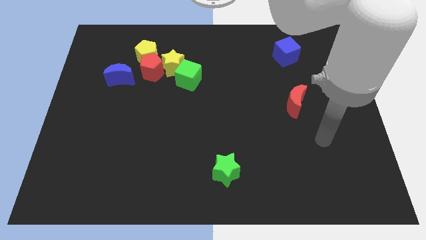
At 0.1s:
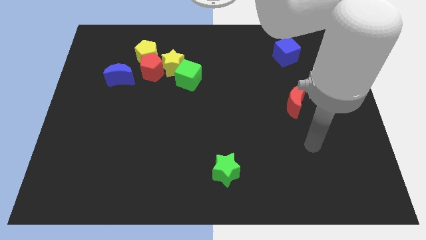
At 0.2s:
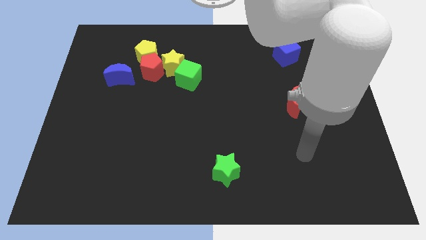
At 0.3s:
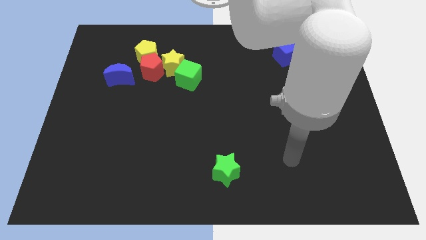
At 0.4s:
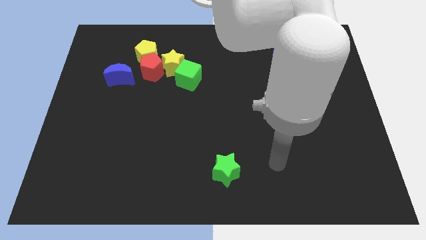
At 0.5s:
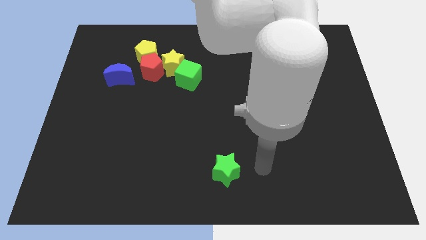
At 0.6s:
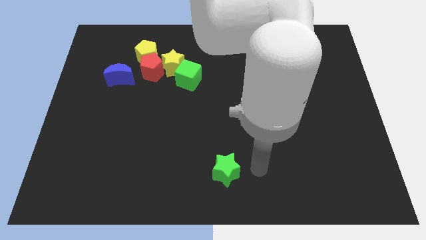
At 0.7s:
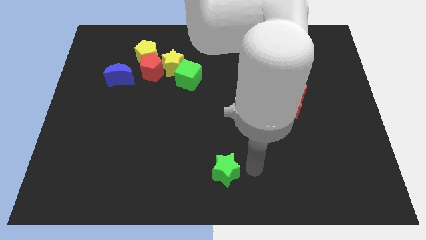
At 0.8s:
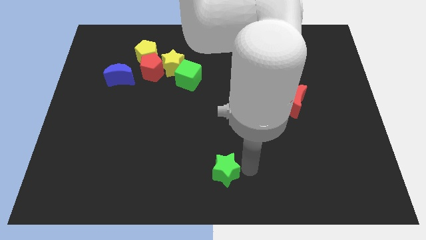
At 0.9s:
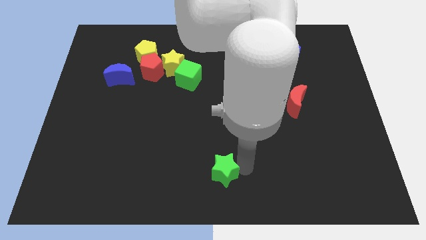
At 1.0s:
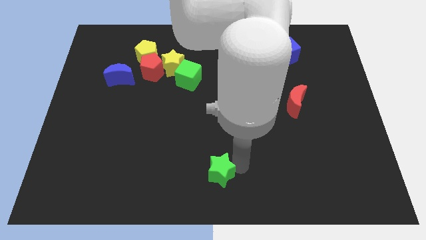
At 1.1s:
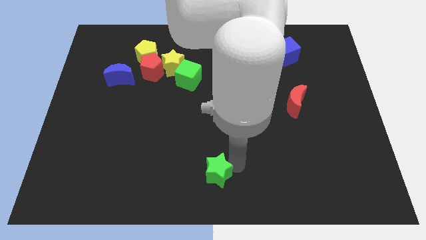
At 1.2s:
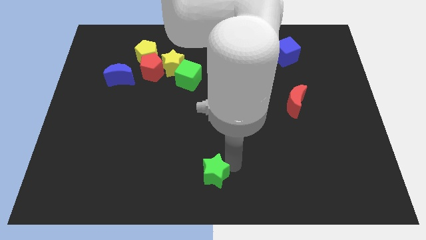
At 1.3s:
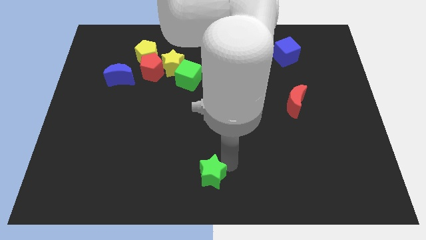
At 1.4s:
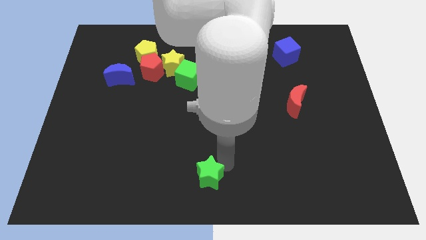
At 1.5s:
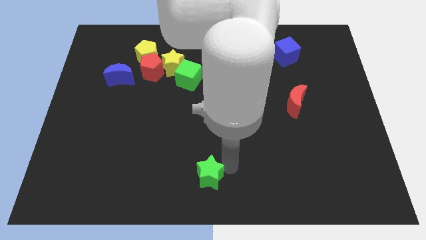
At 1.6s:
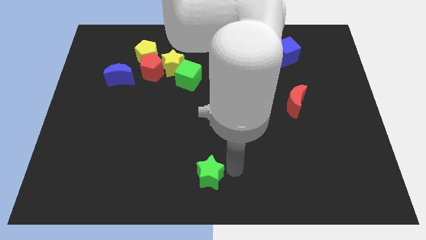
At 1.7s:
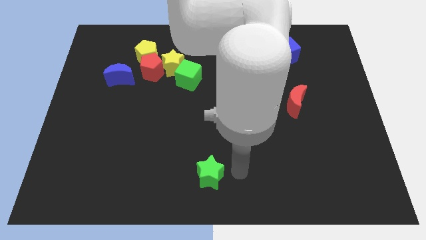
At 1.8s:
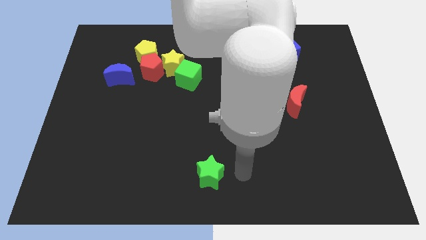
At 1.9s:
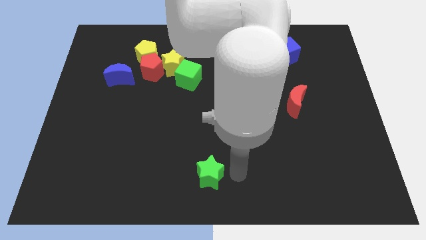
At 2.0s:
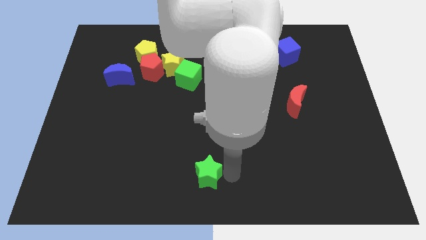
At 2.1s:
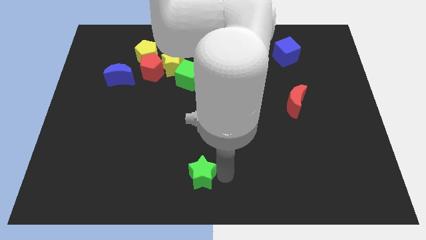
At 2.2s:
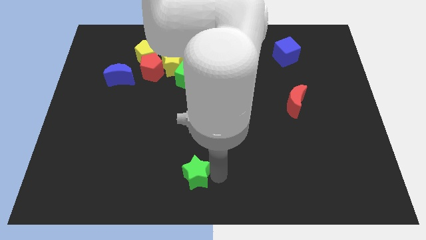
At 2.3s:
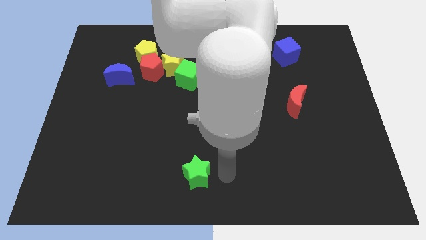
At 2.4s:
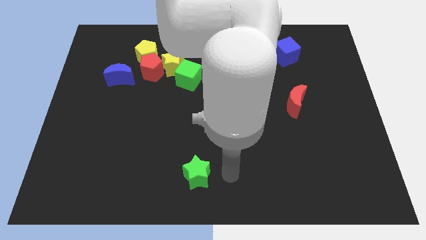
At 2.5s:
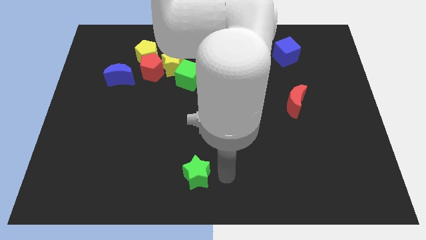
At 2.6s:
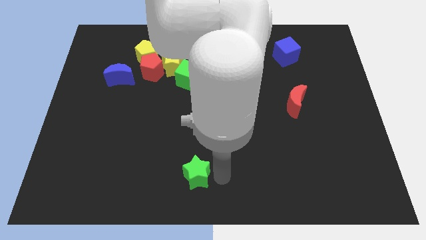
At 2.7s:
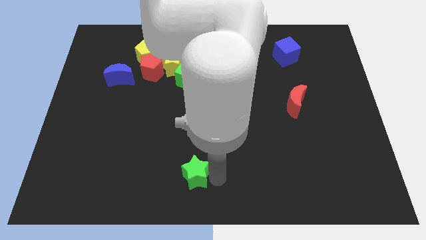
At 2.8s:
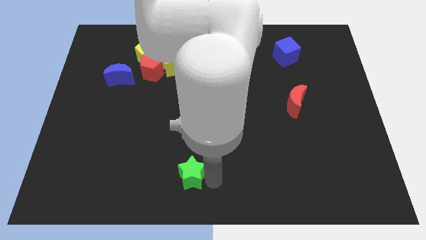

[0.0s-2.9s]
slightly push the green star to the left

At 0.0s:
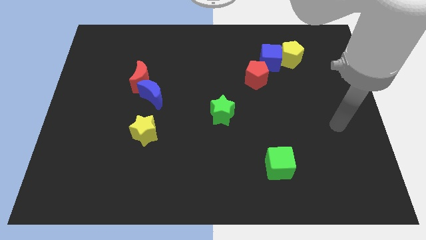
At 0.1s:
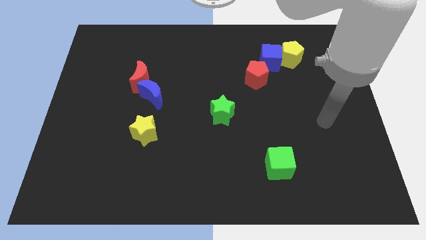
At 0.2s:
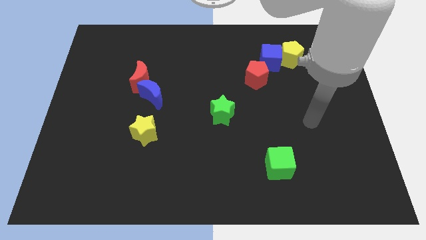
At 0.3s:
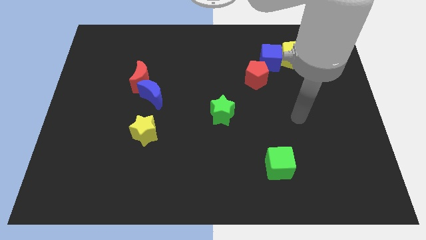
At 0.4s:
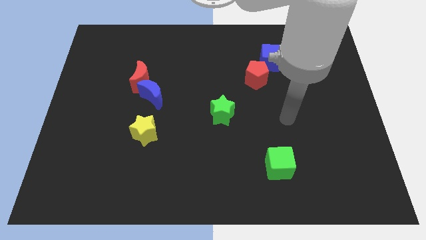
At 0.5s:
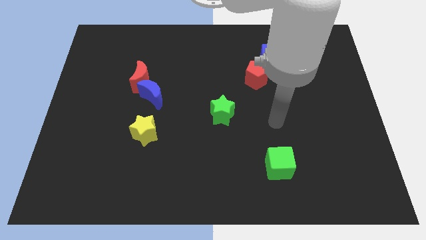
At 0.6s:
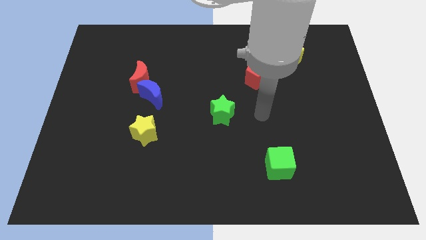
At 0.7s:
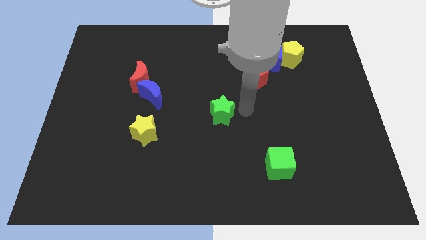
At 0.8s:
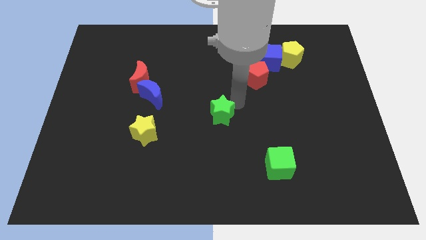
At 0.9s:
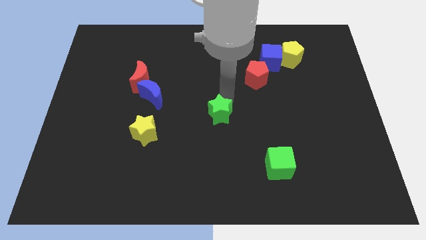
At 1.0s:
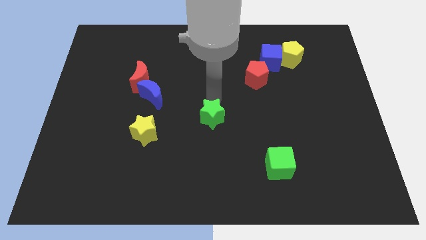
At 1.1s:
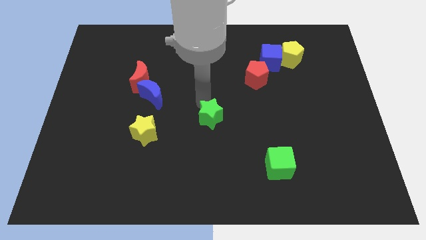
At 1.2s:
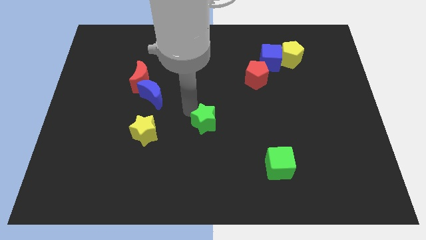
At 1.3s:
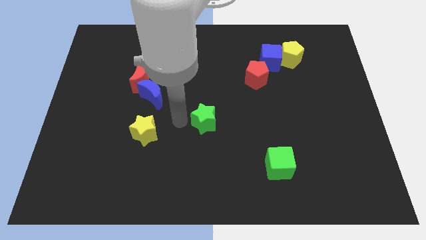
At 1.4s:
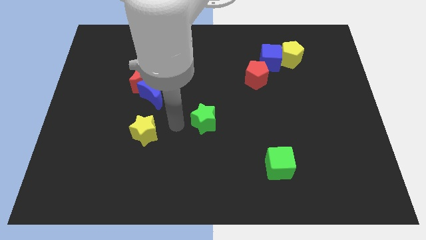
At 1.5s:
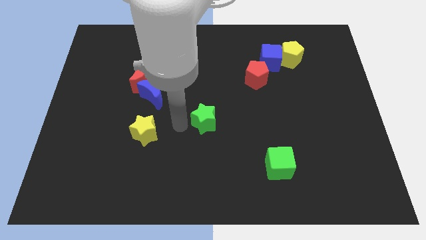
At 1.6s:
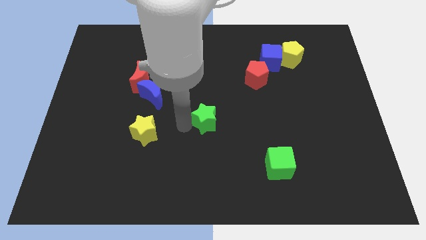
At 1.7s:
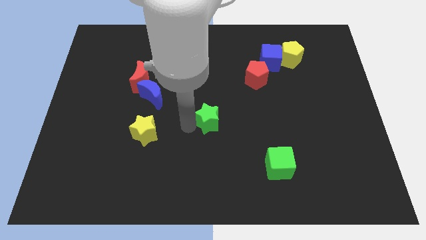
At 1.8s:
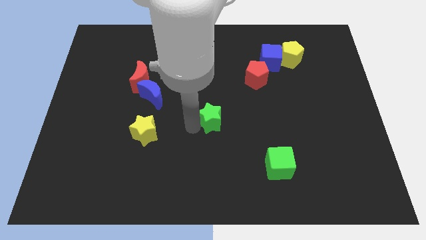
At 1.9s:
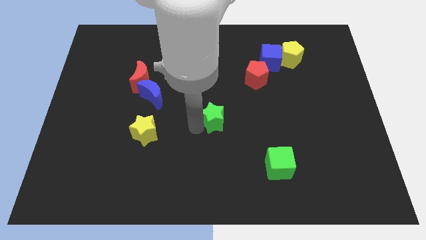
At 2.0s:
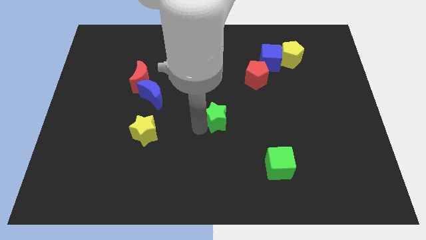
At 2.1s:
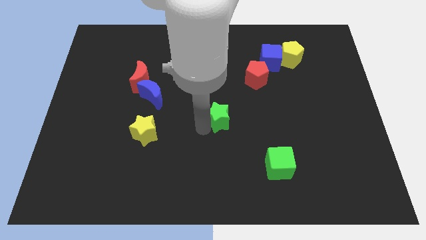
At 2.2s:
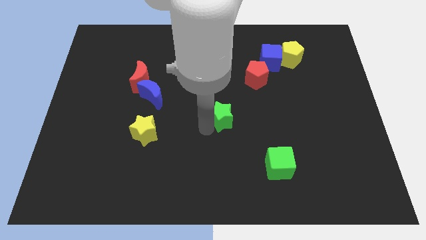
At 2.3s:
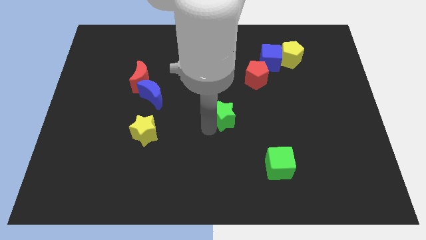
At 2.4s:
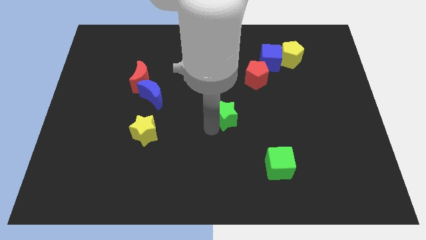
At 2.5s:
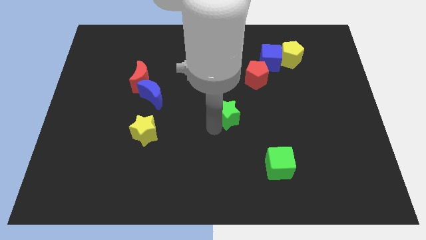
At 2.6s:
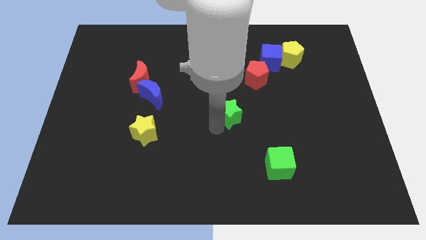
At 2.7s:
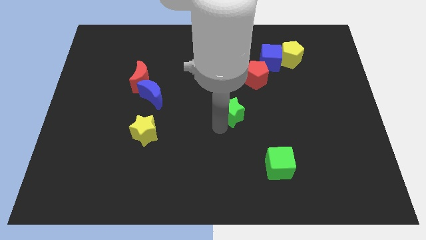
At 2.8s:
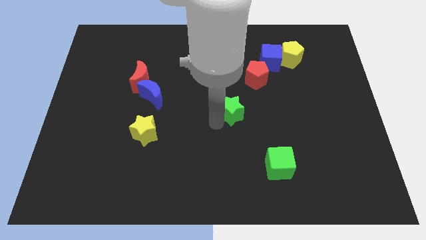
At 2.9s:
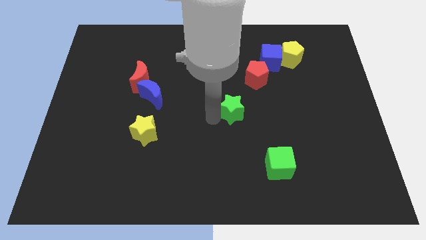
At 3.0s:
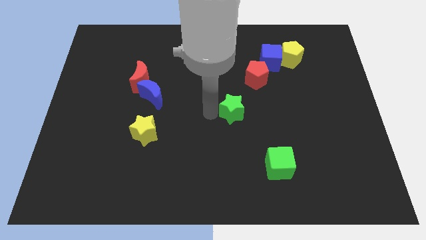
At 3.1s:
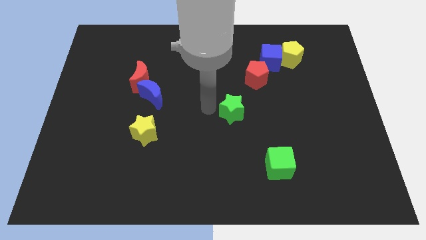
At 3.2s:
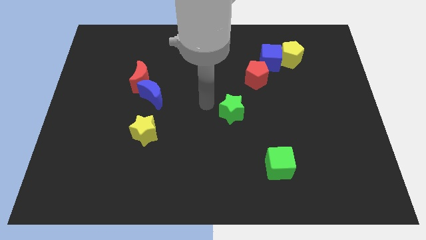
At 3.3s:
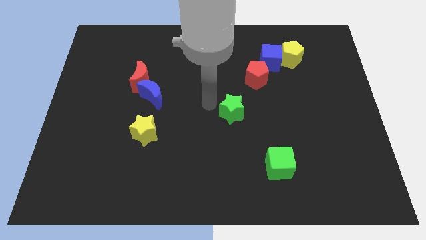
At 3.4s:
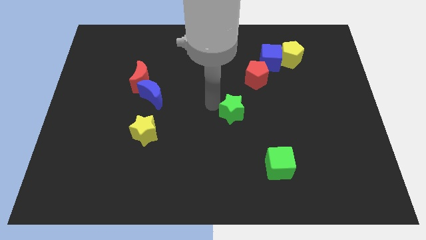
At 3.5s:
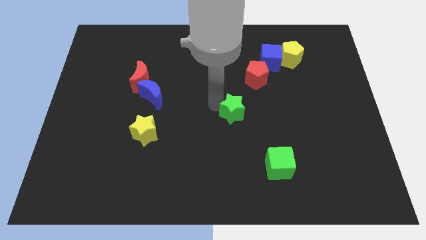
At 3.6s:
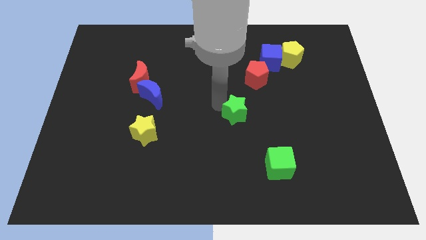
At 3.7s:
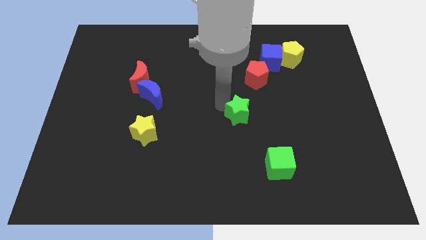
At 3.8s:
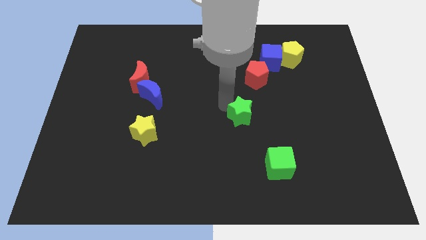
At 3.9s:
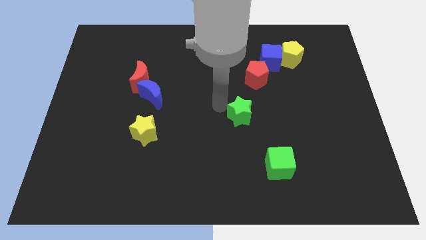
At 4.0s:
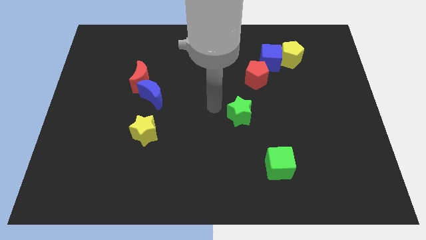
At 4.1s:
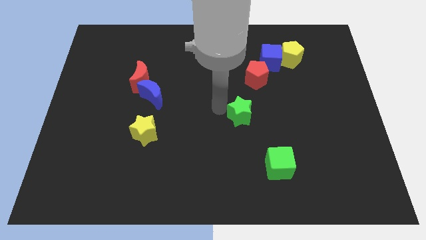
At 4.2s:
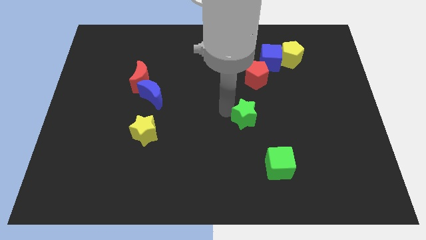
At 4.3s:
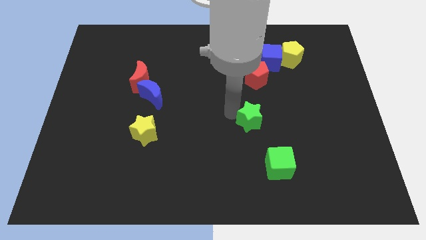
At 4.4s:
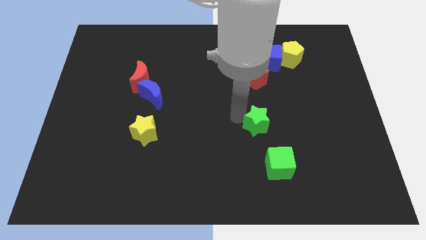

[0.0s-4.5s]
move the green star right somewhat

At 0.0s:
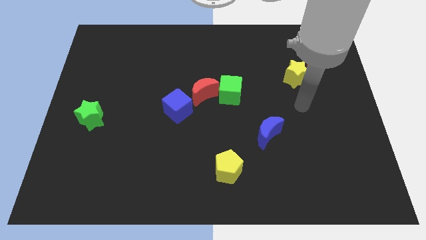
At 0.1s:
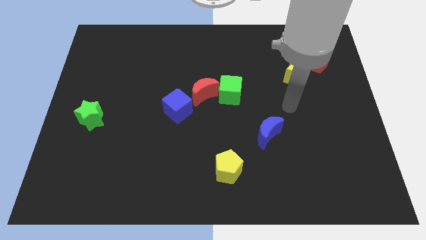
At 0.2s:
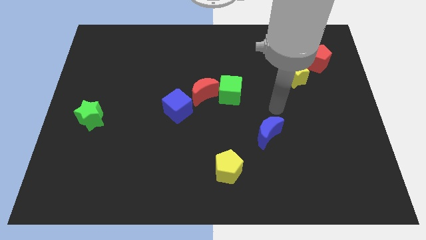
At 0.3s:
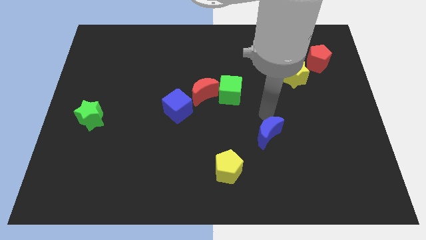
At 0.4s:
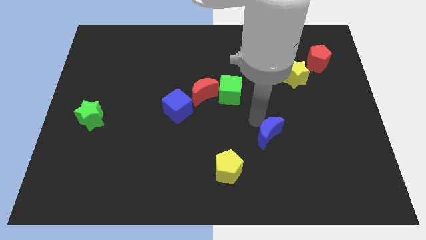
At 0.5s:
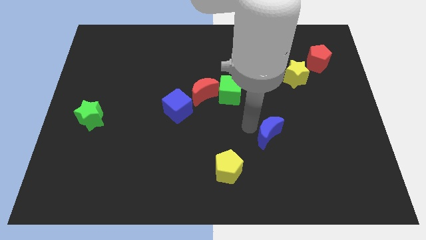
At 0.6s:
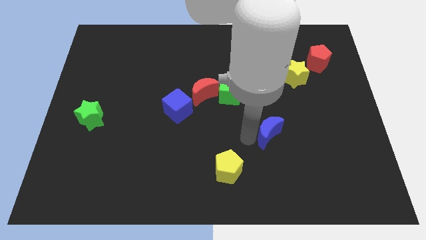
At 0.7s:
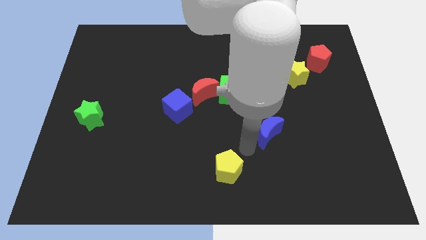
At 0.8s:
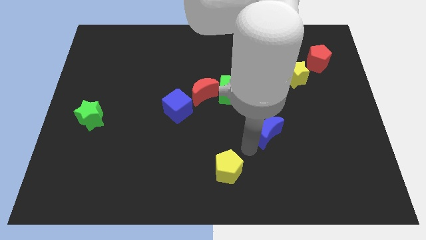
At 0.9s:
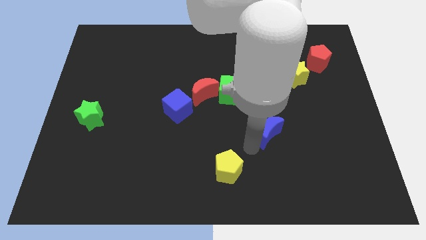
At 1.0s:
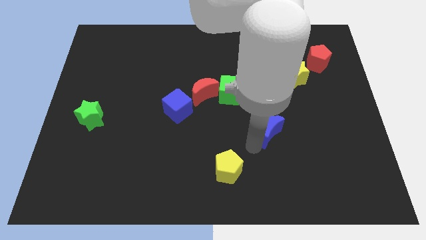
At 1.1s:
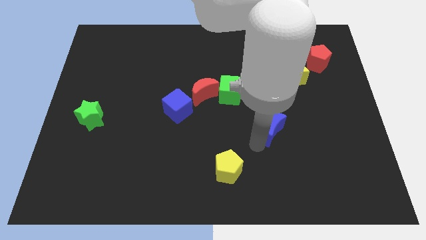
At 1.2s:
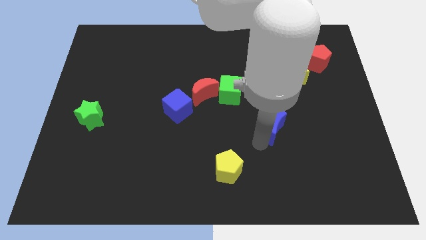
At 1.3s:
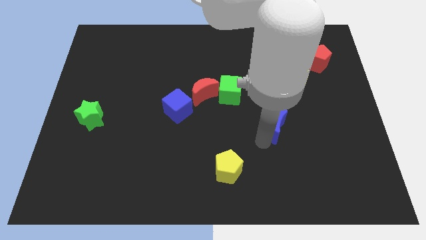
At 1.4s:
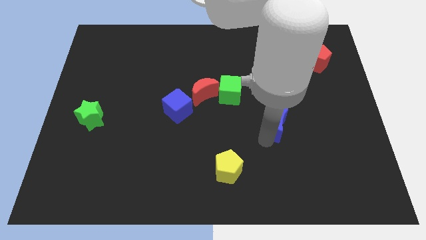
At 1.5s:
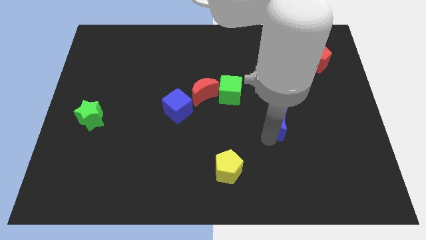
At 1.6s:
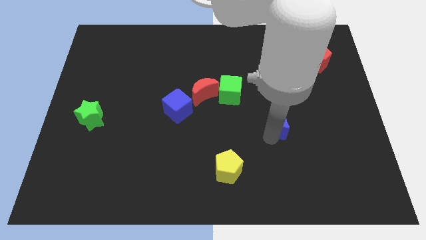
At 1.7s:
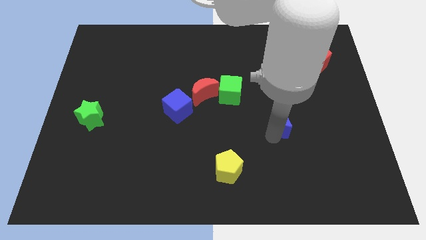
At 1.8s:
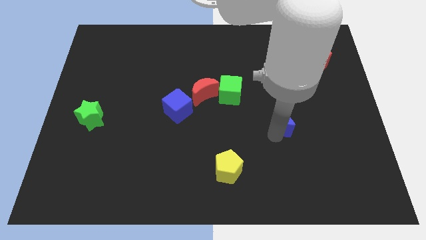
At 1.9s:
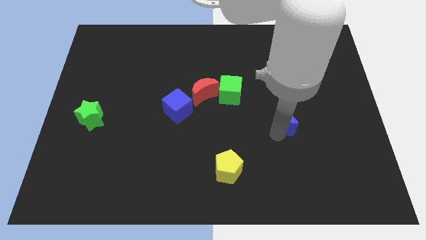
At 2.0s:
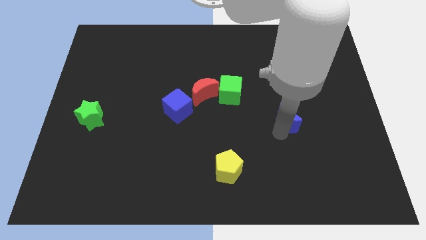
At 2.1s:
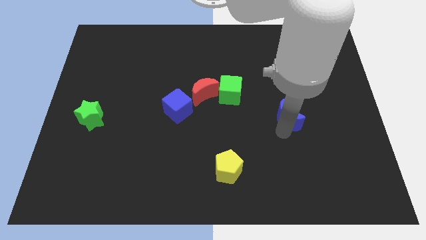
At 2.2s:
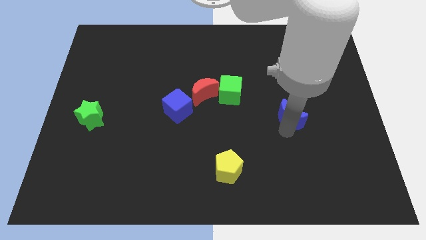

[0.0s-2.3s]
move the blue moon upwards and to the right slightly
